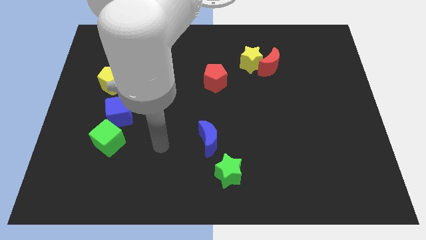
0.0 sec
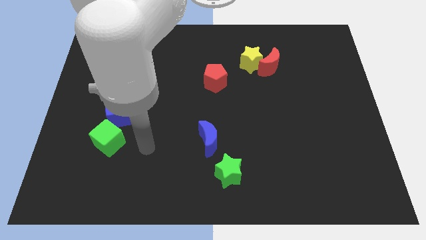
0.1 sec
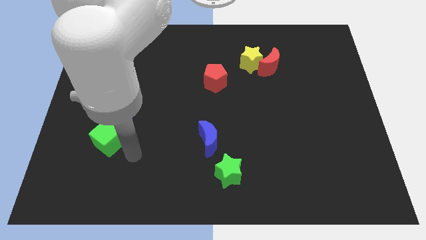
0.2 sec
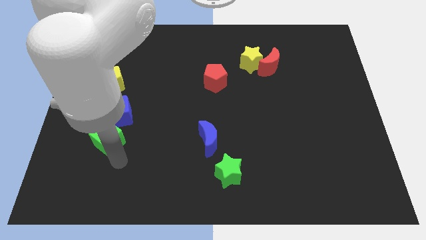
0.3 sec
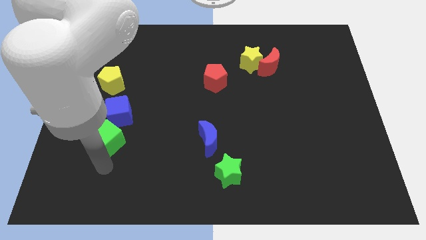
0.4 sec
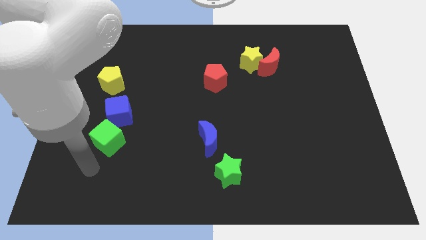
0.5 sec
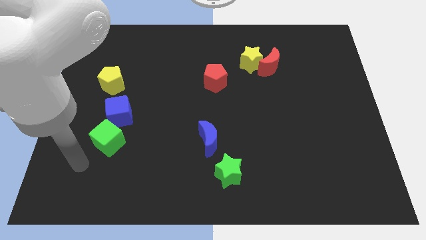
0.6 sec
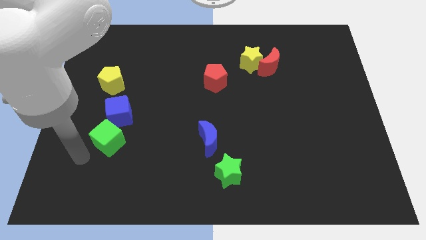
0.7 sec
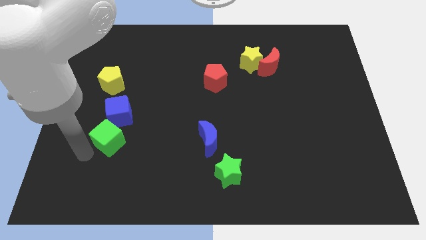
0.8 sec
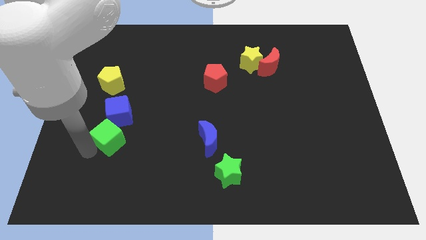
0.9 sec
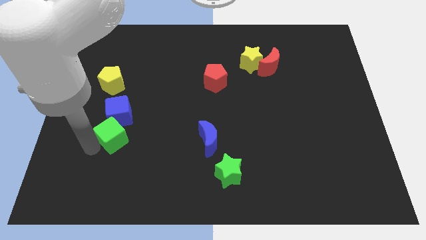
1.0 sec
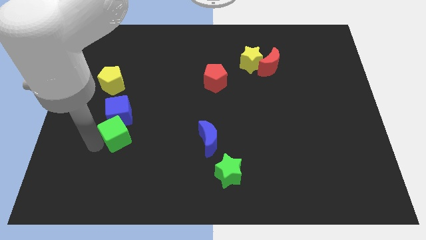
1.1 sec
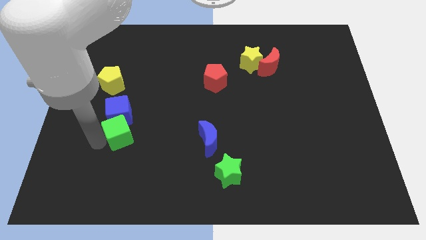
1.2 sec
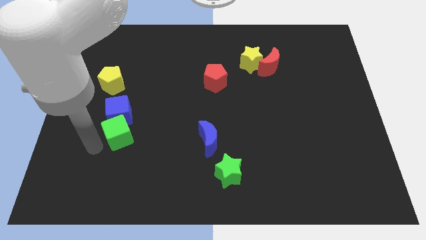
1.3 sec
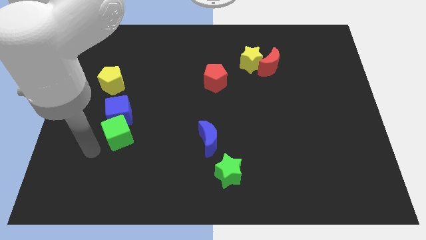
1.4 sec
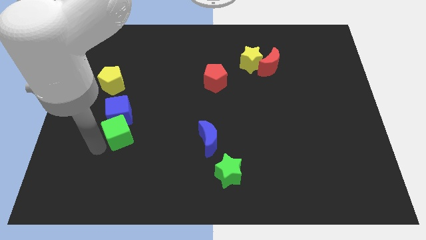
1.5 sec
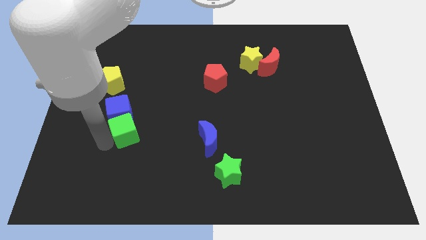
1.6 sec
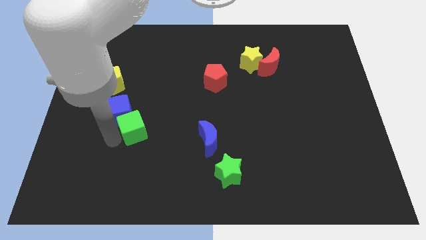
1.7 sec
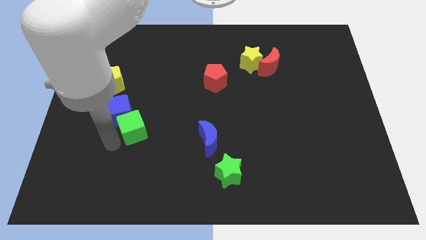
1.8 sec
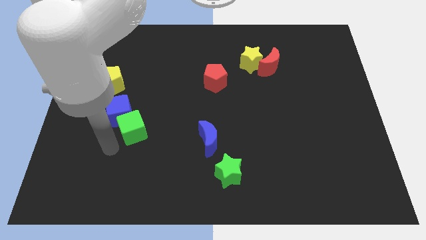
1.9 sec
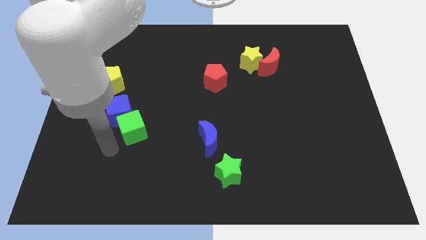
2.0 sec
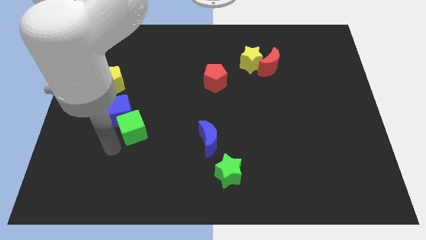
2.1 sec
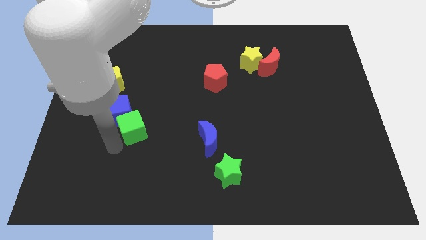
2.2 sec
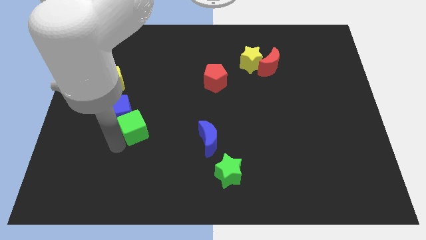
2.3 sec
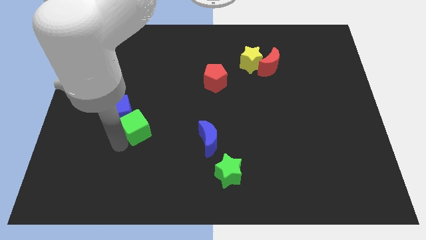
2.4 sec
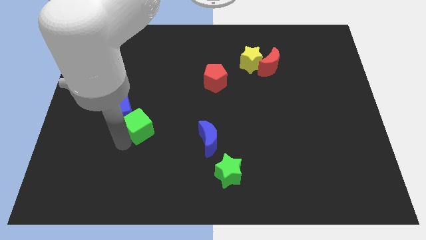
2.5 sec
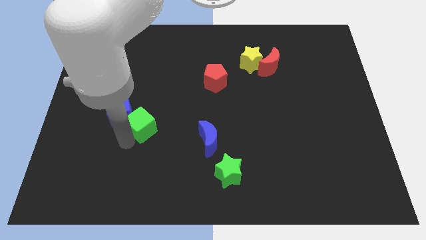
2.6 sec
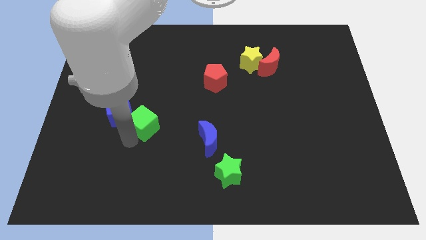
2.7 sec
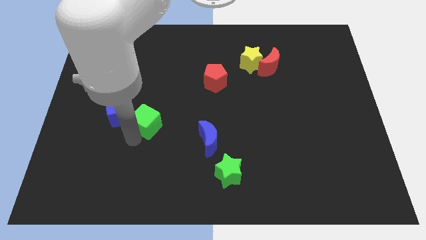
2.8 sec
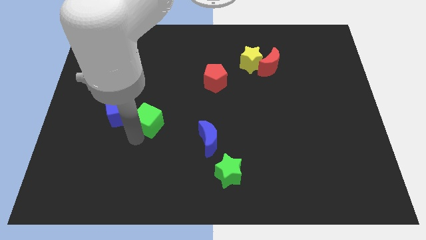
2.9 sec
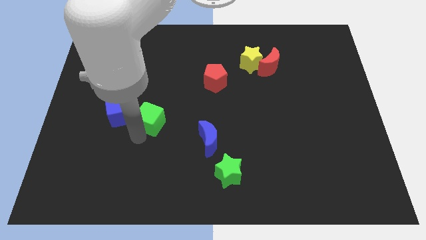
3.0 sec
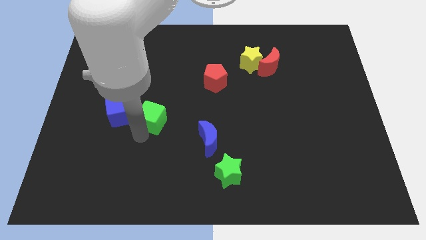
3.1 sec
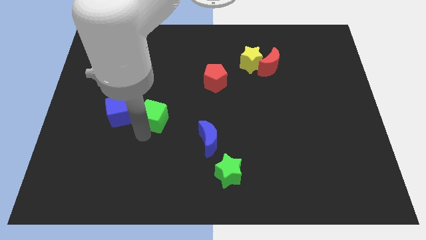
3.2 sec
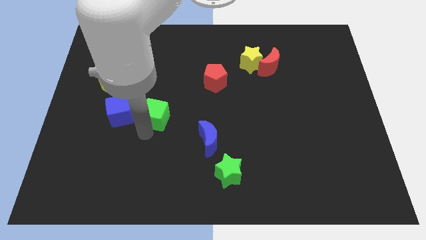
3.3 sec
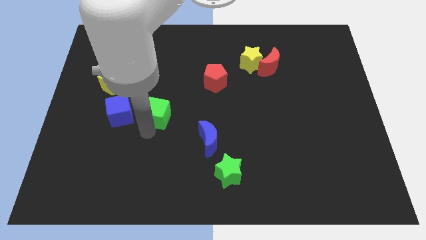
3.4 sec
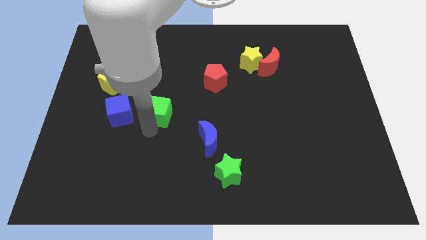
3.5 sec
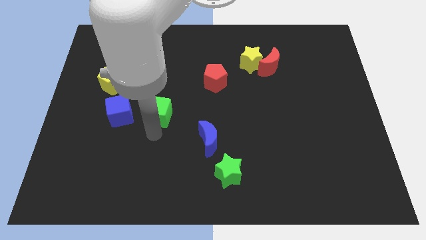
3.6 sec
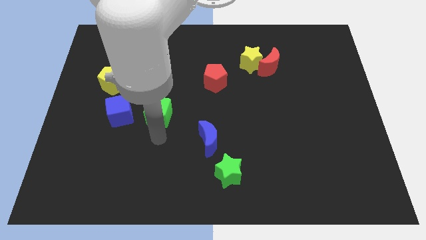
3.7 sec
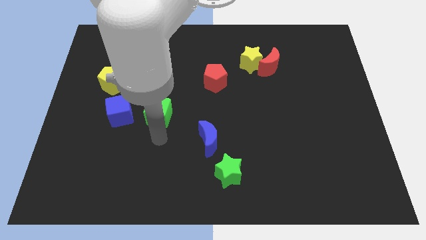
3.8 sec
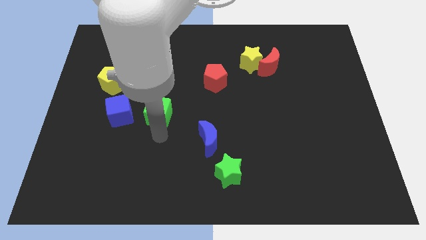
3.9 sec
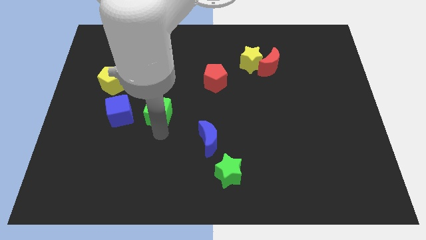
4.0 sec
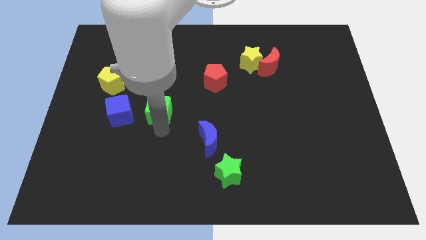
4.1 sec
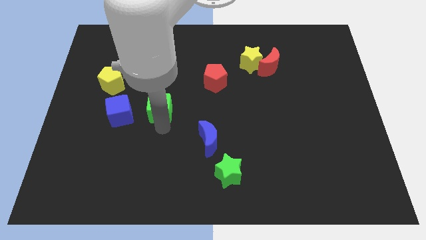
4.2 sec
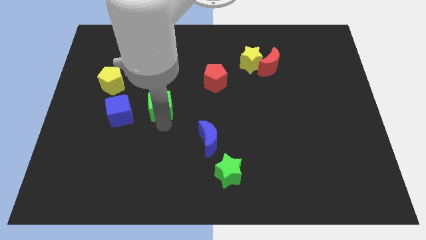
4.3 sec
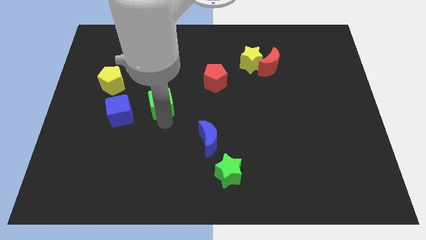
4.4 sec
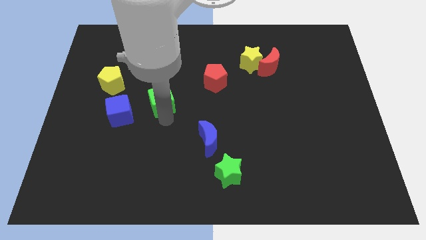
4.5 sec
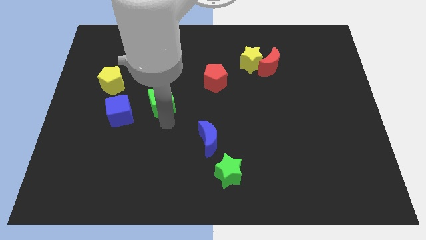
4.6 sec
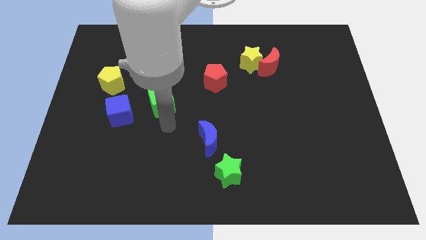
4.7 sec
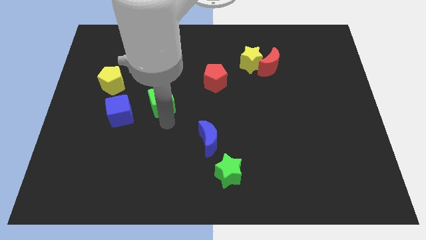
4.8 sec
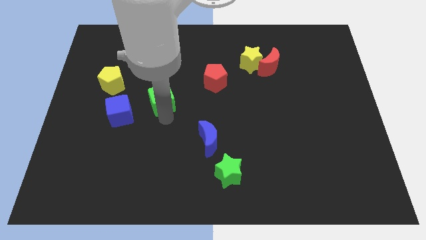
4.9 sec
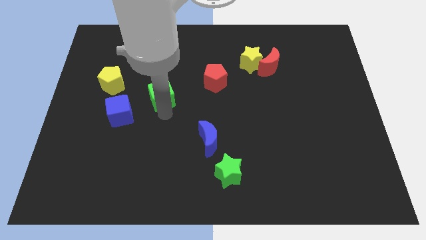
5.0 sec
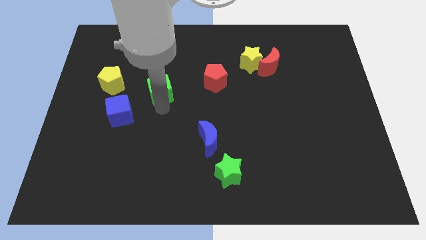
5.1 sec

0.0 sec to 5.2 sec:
push the green cube just left of the red pentagon

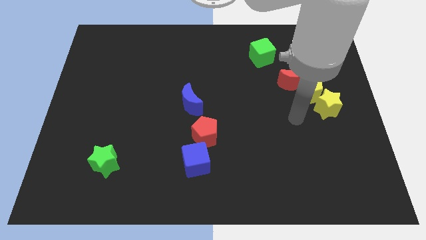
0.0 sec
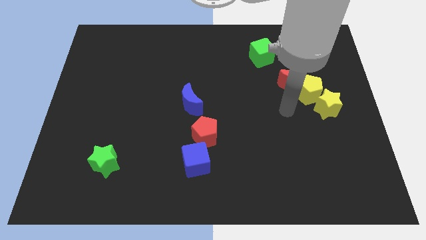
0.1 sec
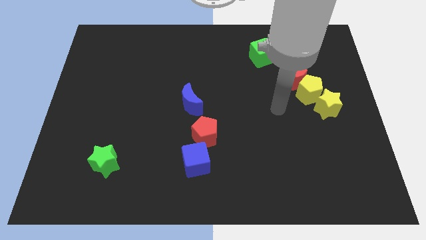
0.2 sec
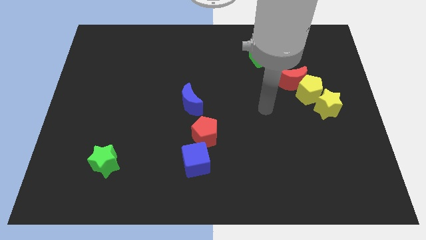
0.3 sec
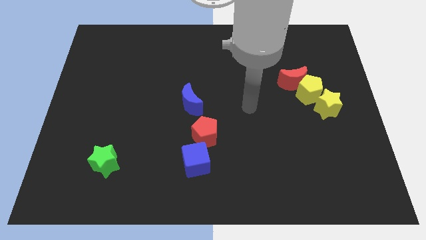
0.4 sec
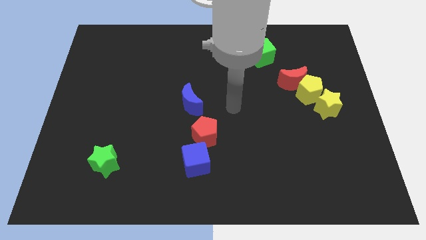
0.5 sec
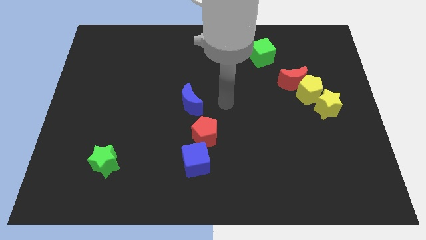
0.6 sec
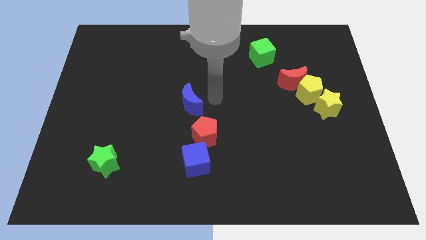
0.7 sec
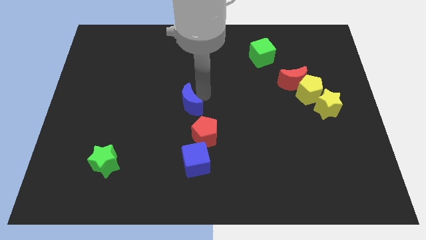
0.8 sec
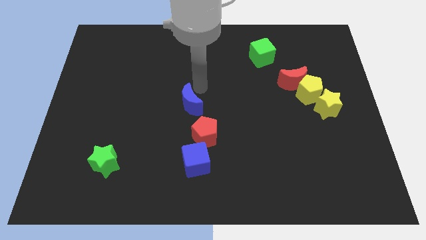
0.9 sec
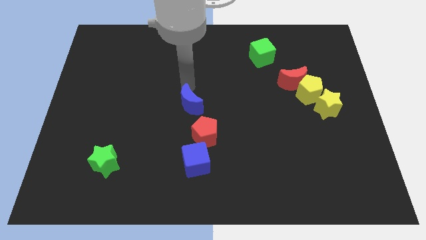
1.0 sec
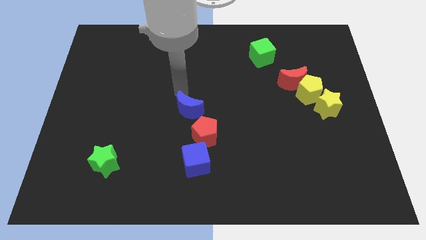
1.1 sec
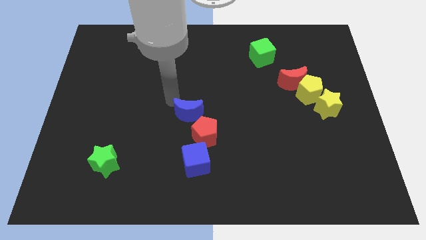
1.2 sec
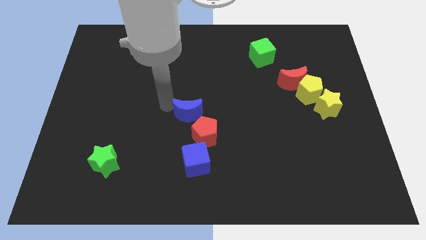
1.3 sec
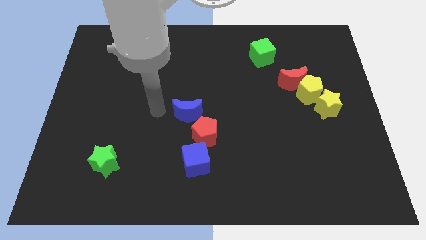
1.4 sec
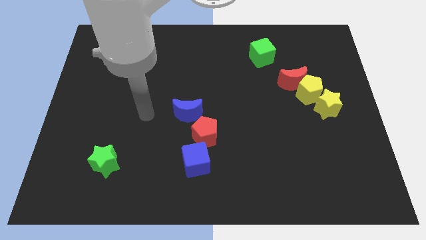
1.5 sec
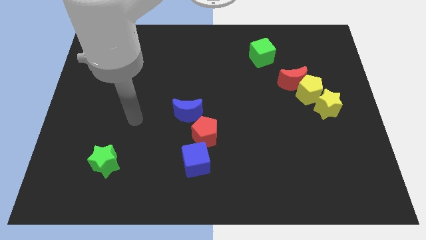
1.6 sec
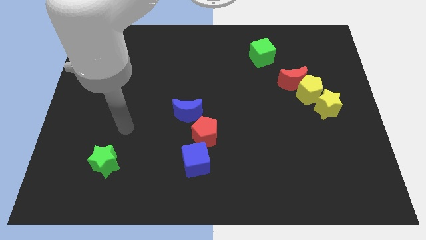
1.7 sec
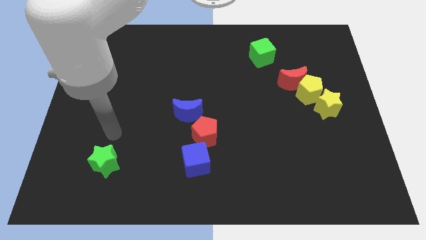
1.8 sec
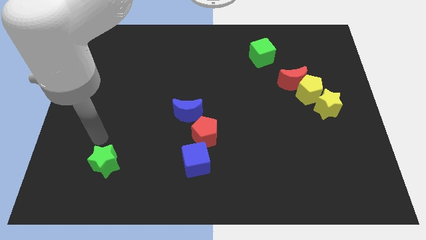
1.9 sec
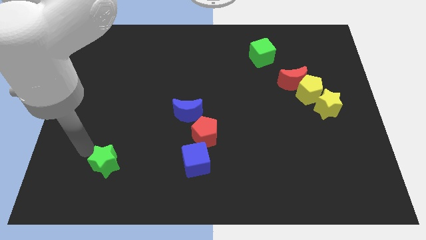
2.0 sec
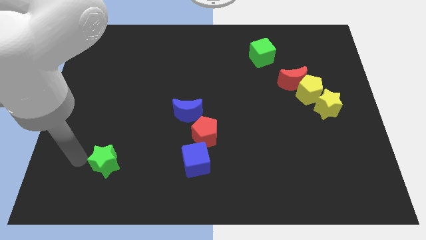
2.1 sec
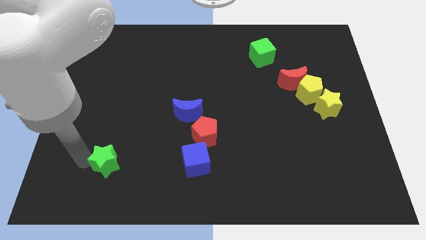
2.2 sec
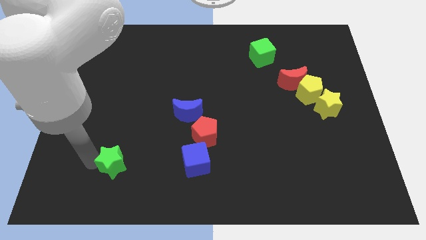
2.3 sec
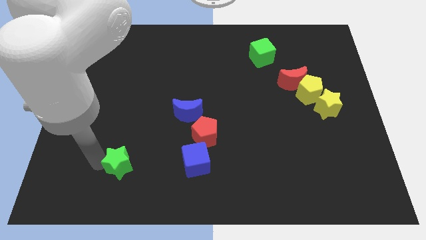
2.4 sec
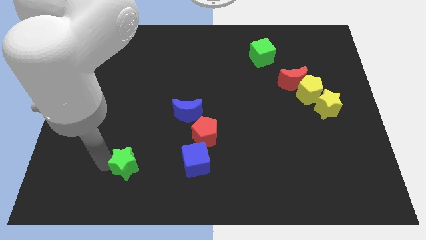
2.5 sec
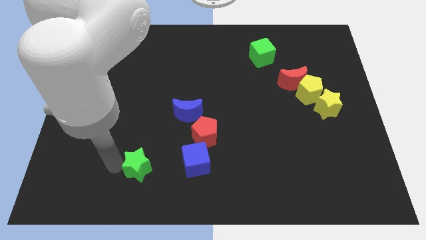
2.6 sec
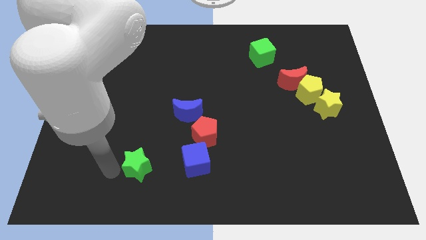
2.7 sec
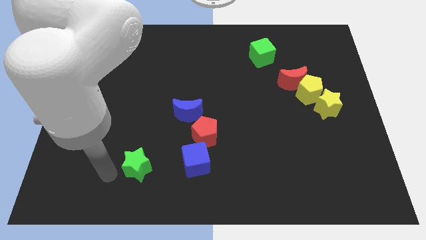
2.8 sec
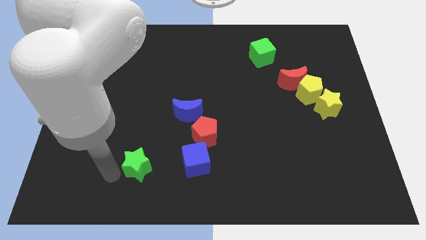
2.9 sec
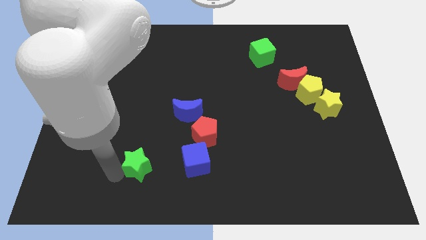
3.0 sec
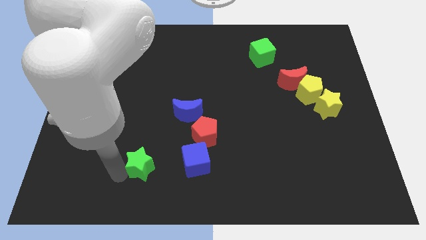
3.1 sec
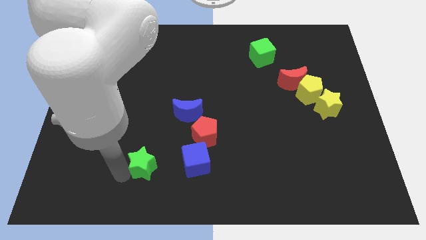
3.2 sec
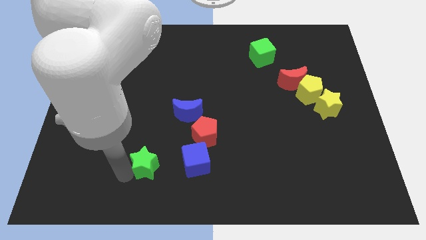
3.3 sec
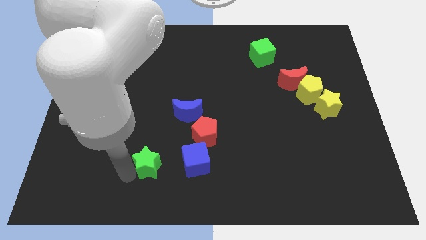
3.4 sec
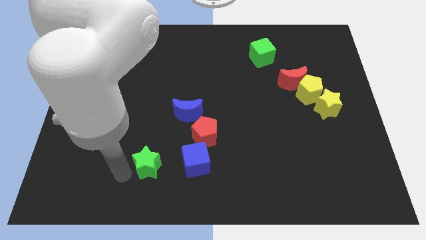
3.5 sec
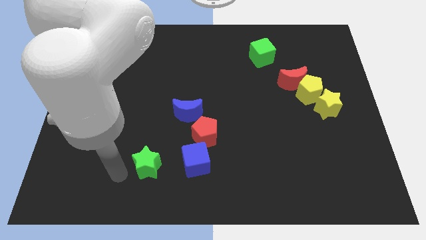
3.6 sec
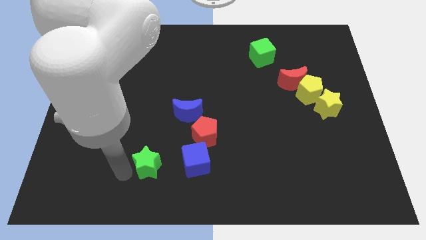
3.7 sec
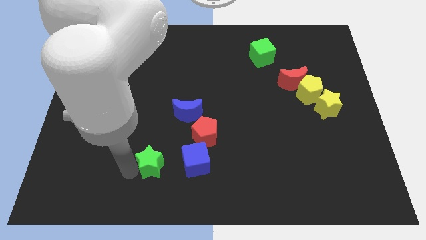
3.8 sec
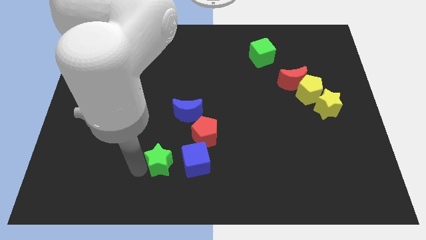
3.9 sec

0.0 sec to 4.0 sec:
slide the green star diagonally down and to the left of the red pentagon
